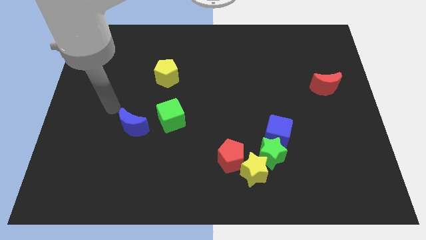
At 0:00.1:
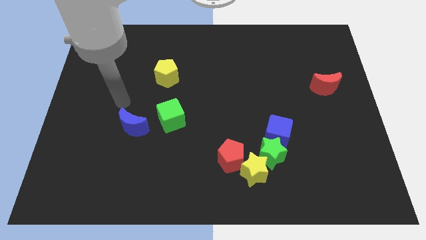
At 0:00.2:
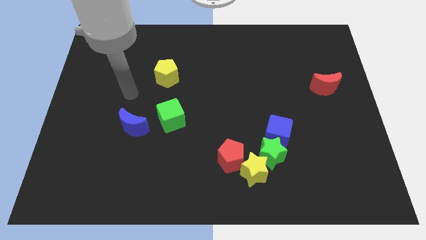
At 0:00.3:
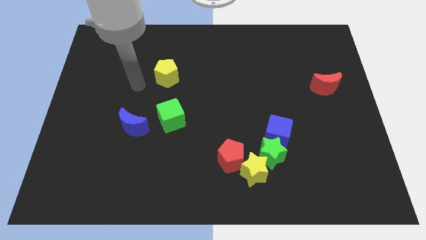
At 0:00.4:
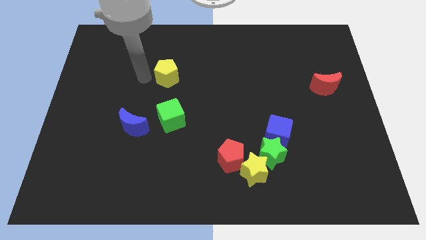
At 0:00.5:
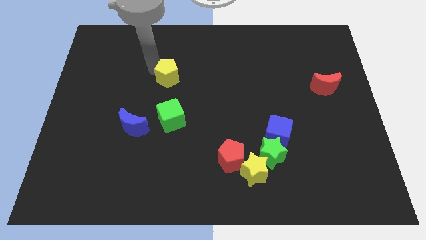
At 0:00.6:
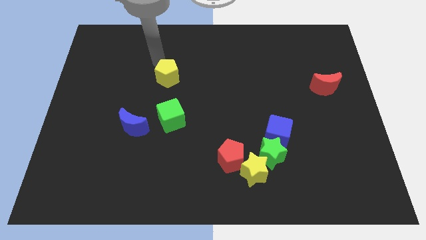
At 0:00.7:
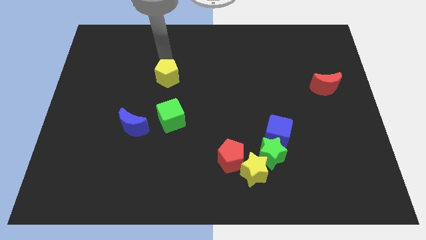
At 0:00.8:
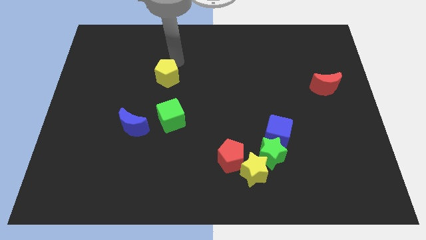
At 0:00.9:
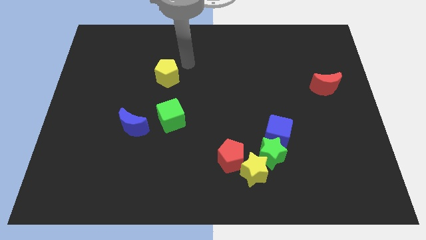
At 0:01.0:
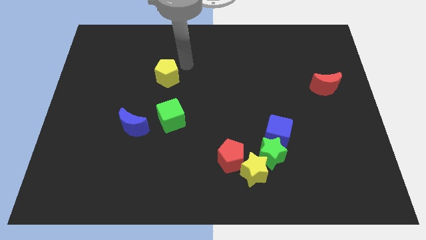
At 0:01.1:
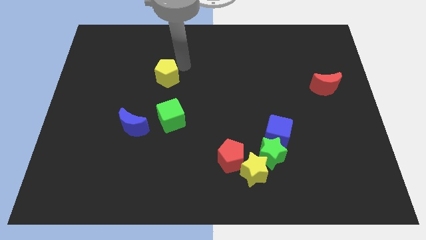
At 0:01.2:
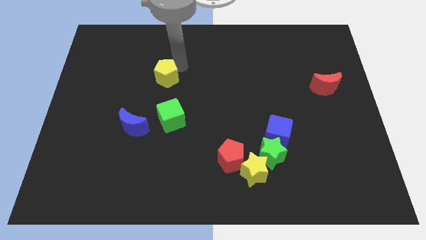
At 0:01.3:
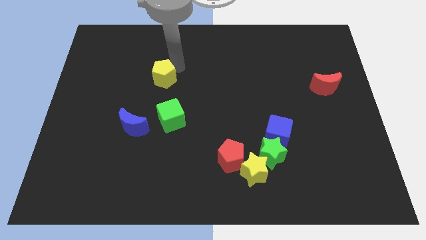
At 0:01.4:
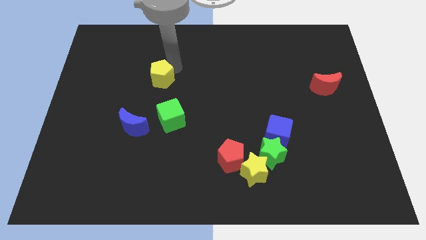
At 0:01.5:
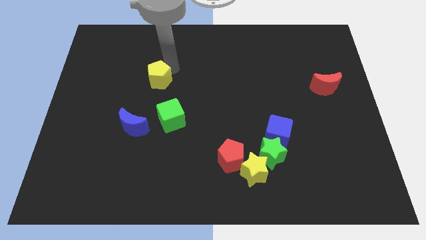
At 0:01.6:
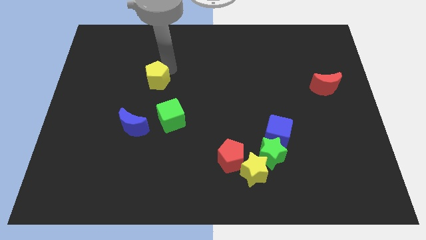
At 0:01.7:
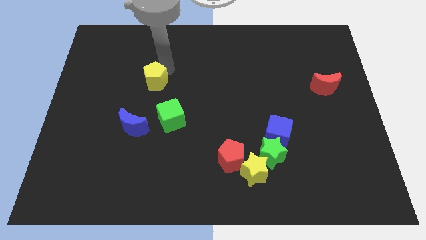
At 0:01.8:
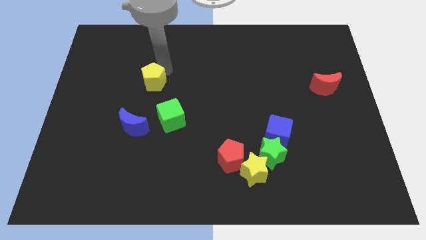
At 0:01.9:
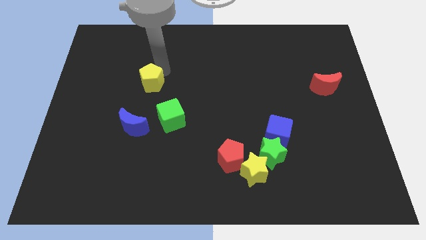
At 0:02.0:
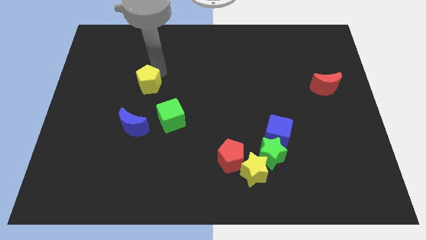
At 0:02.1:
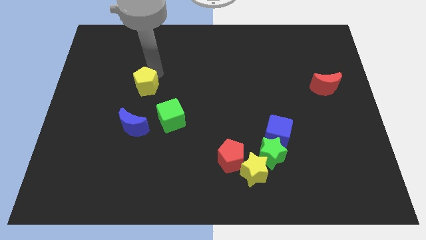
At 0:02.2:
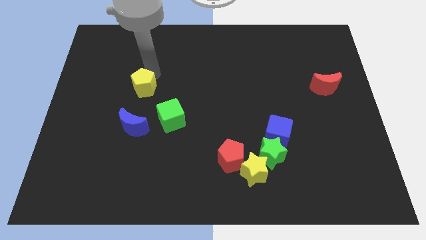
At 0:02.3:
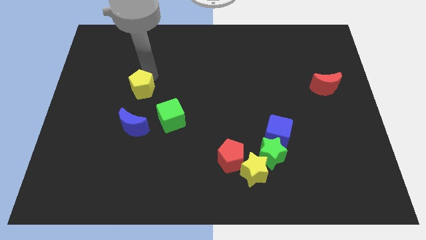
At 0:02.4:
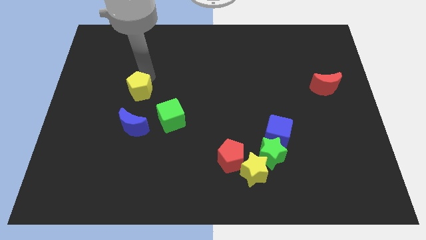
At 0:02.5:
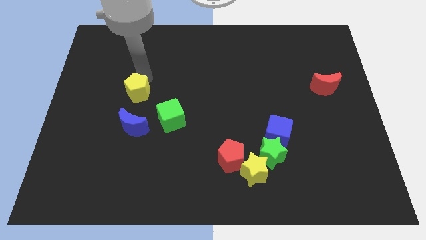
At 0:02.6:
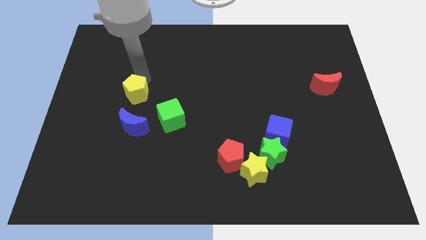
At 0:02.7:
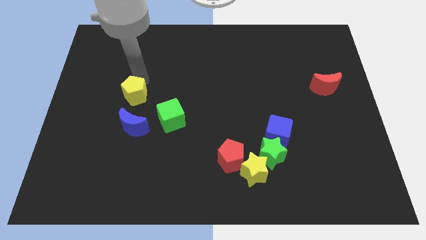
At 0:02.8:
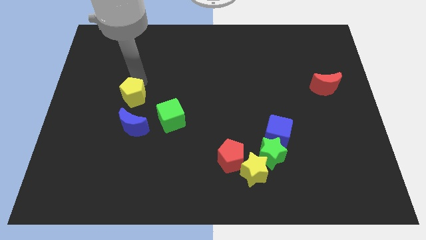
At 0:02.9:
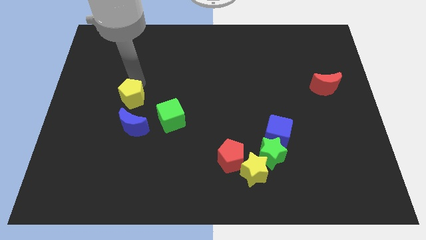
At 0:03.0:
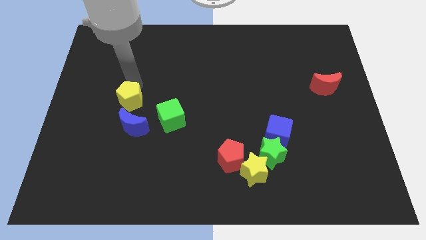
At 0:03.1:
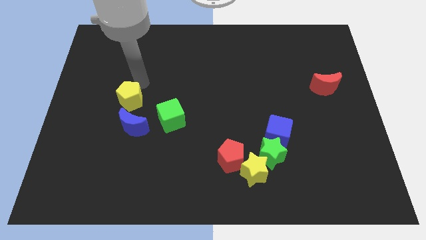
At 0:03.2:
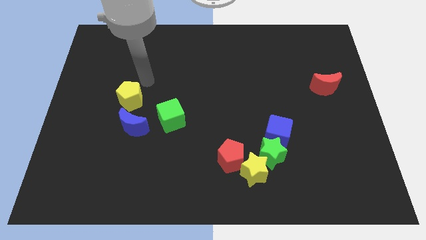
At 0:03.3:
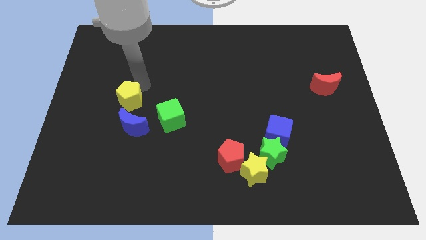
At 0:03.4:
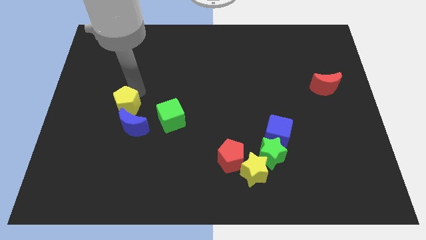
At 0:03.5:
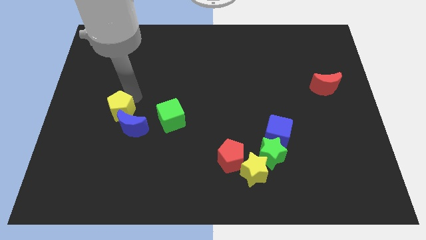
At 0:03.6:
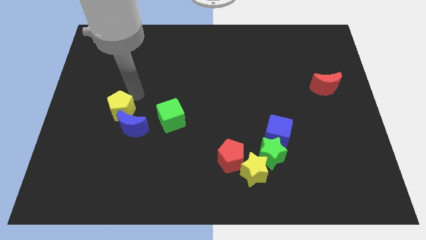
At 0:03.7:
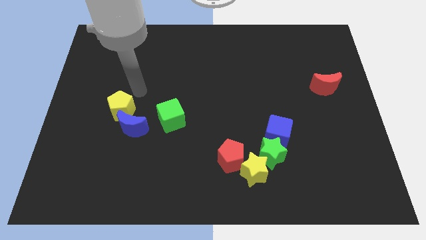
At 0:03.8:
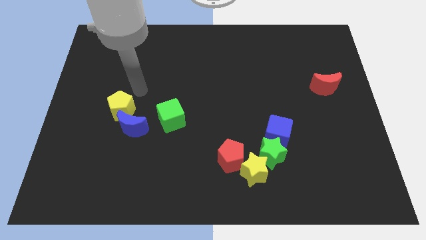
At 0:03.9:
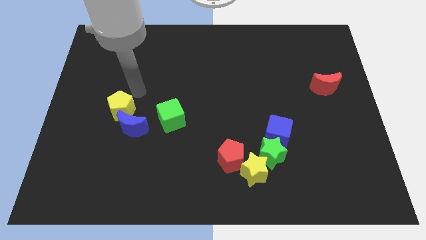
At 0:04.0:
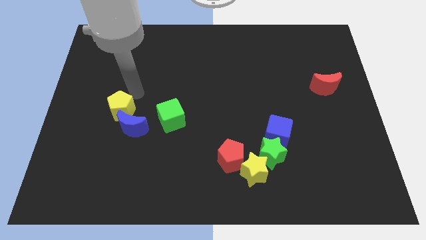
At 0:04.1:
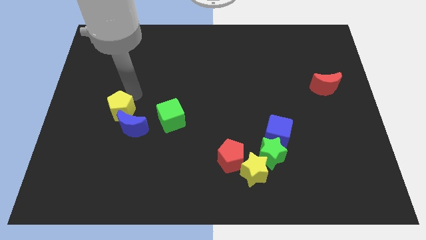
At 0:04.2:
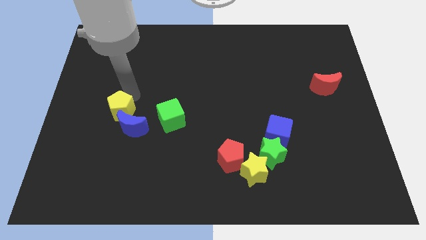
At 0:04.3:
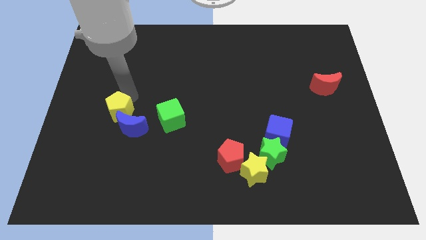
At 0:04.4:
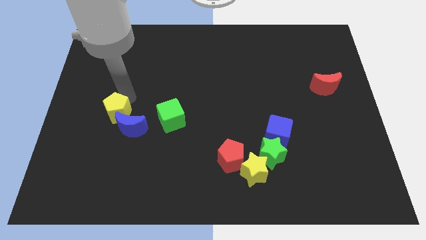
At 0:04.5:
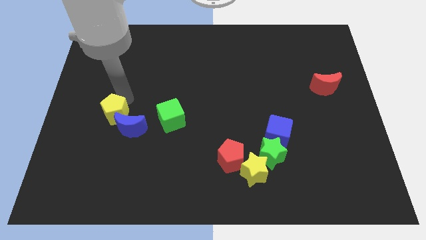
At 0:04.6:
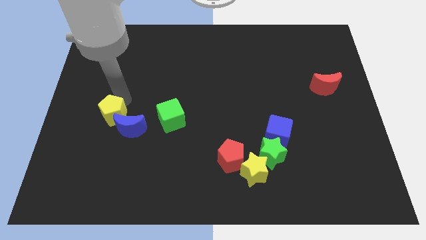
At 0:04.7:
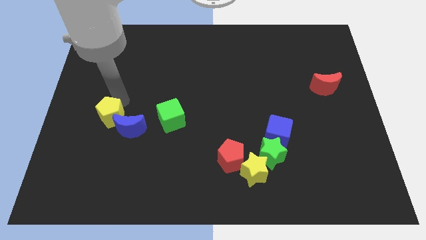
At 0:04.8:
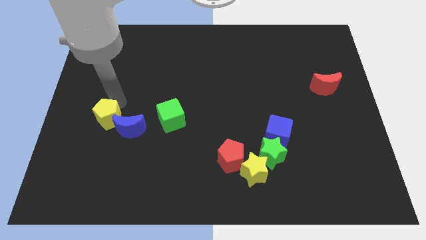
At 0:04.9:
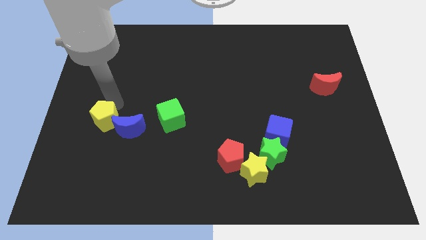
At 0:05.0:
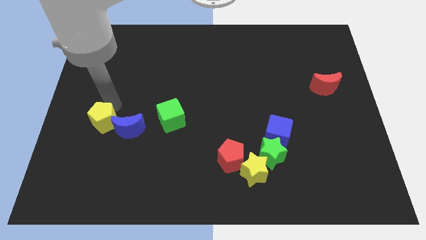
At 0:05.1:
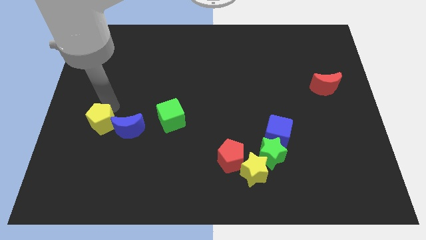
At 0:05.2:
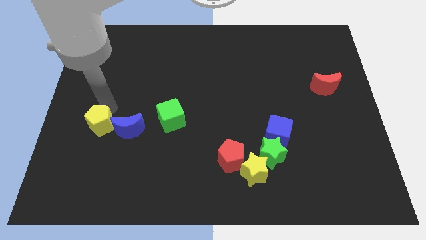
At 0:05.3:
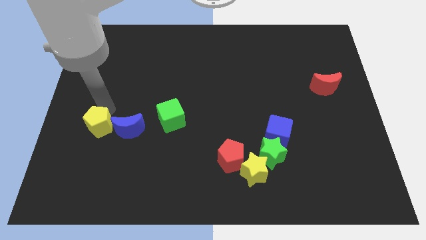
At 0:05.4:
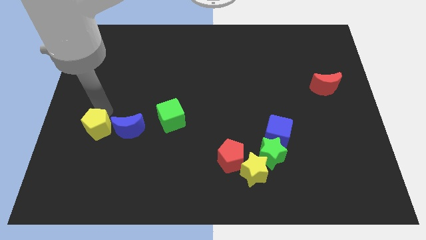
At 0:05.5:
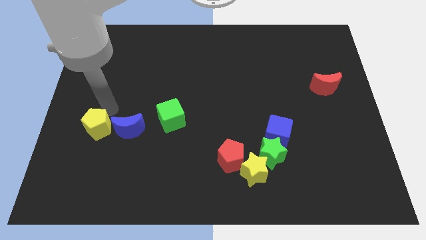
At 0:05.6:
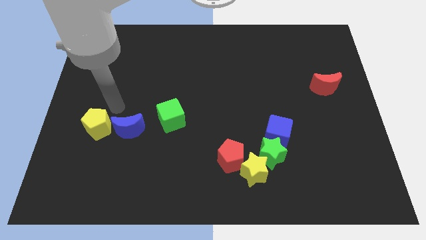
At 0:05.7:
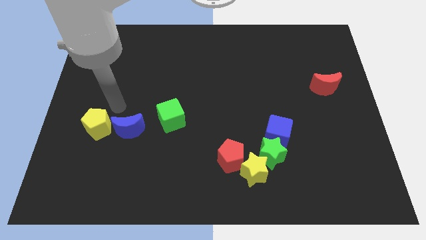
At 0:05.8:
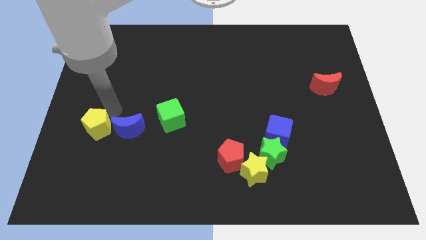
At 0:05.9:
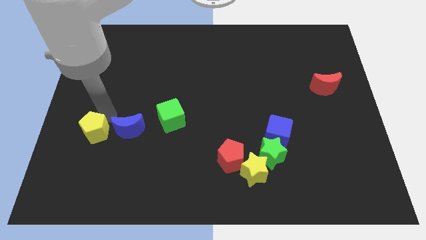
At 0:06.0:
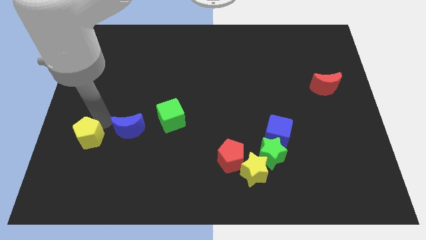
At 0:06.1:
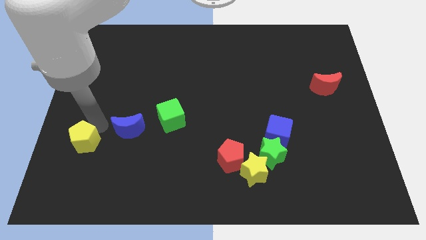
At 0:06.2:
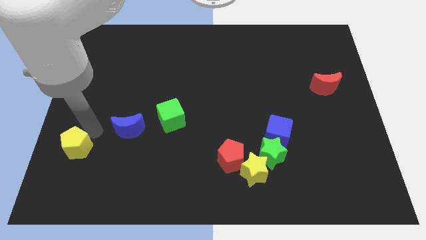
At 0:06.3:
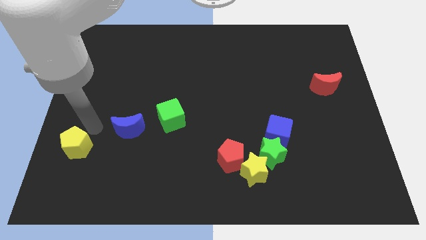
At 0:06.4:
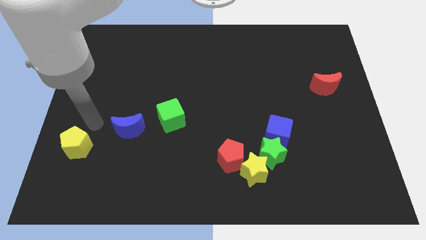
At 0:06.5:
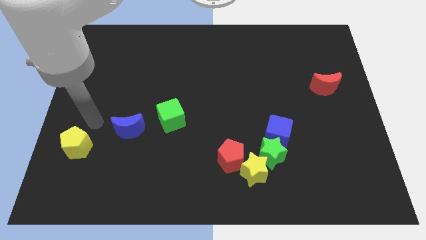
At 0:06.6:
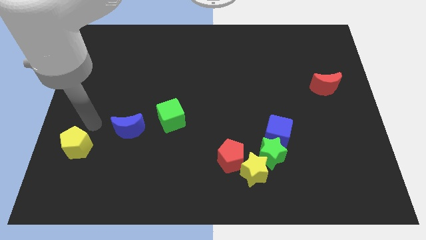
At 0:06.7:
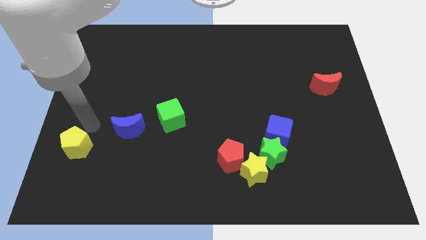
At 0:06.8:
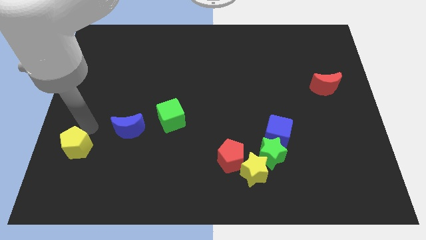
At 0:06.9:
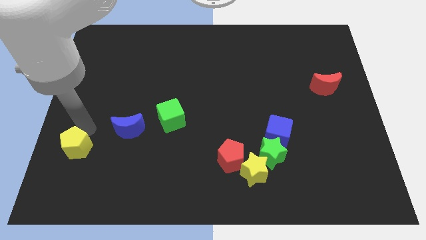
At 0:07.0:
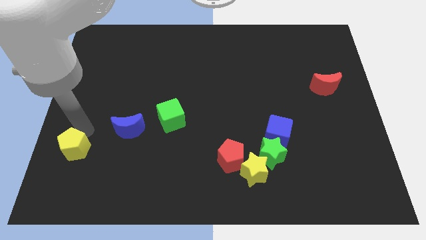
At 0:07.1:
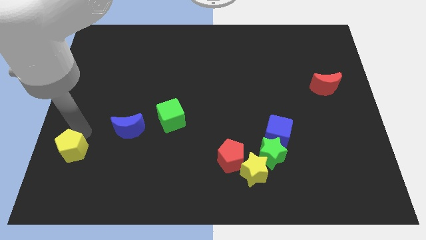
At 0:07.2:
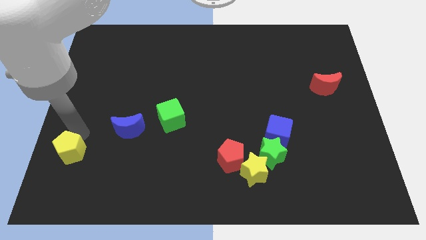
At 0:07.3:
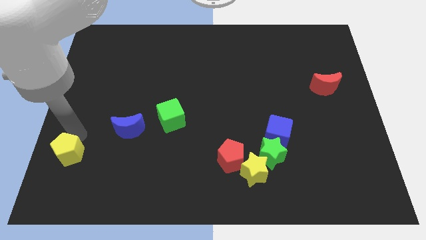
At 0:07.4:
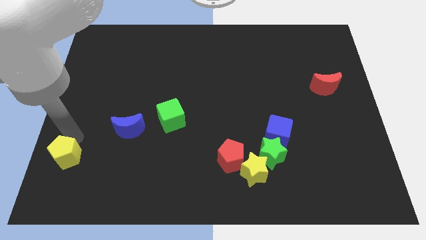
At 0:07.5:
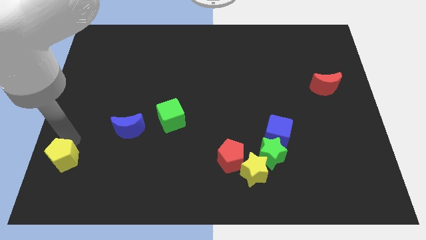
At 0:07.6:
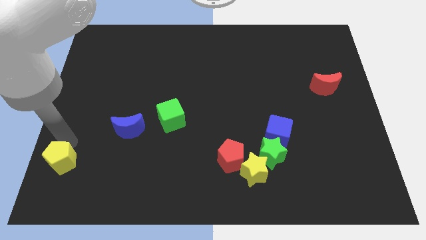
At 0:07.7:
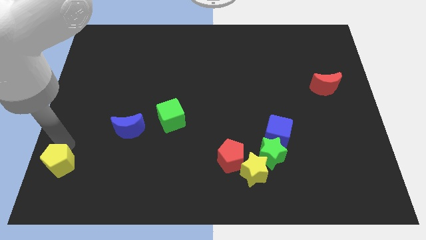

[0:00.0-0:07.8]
put the yellow pentagon to the bottom left of the board
